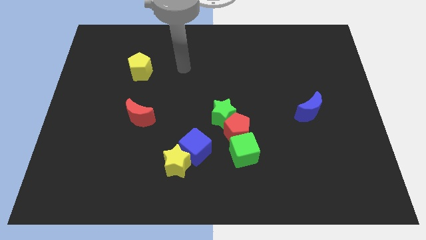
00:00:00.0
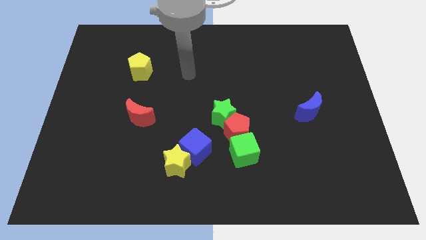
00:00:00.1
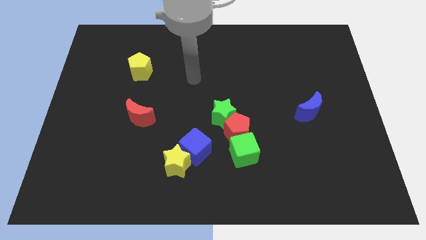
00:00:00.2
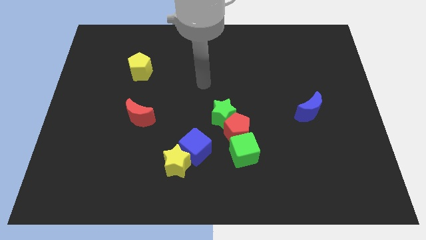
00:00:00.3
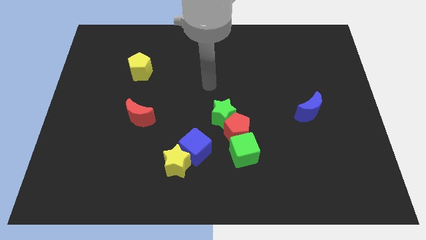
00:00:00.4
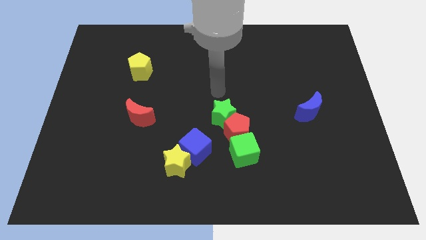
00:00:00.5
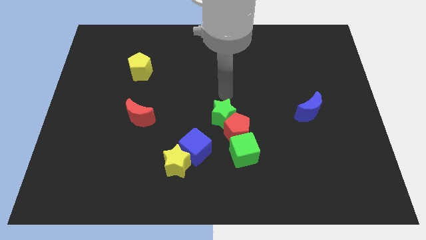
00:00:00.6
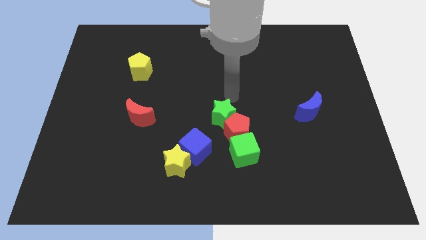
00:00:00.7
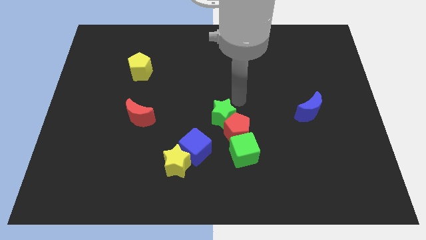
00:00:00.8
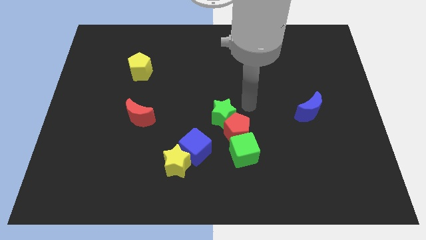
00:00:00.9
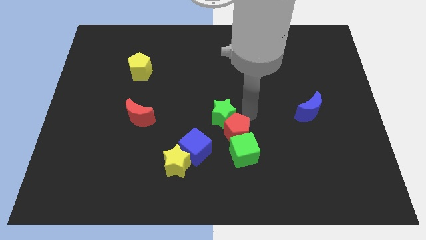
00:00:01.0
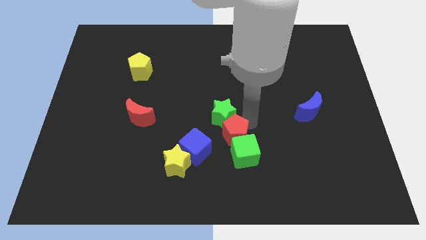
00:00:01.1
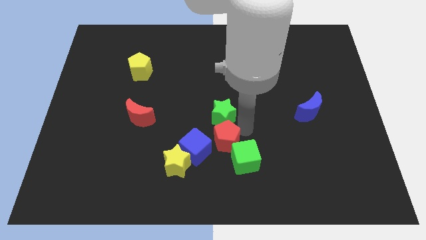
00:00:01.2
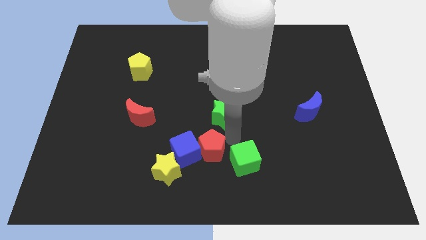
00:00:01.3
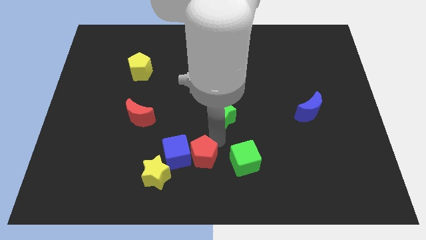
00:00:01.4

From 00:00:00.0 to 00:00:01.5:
move the green star away from the red pentagon

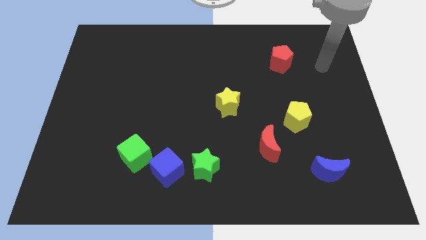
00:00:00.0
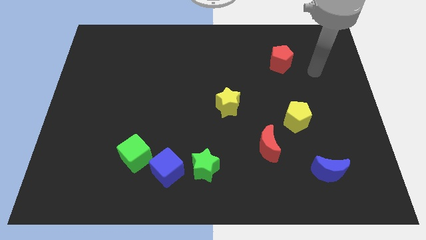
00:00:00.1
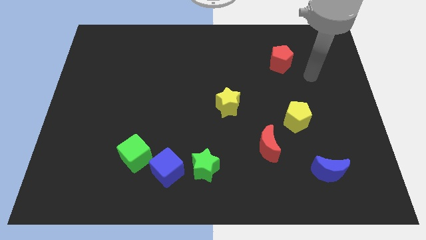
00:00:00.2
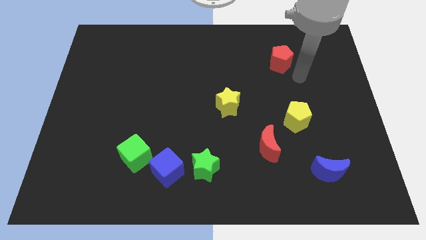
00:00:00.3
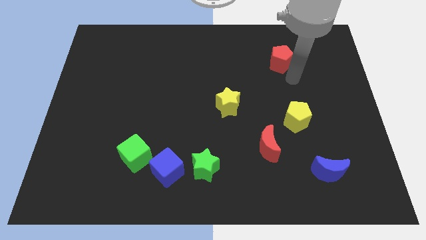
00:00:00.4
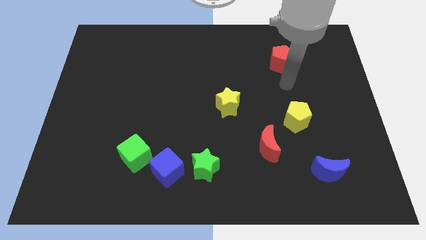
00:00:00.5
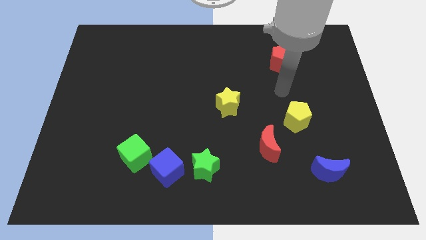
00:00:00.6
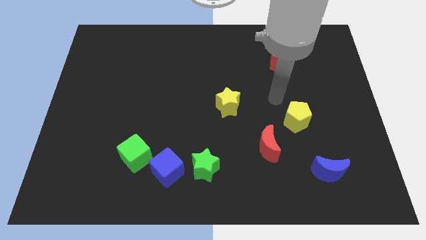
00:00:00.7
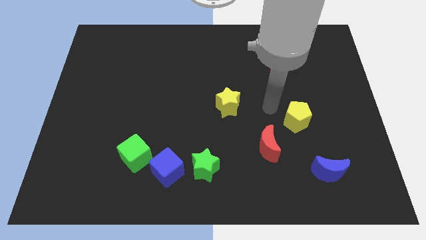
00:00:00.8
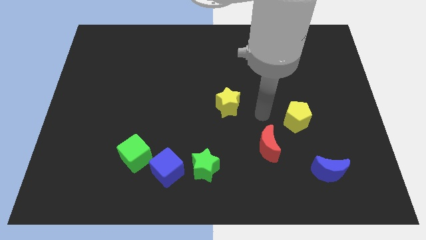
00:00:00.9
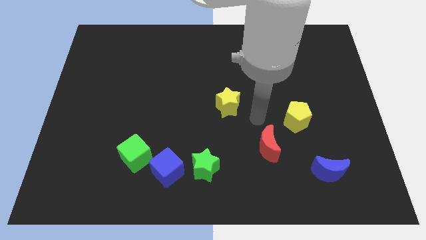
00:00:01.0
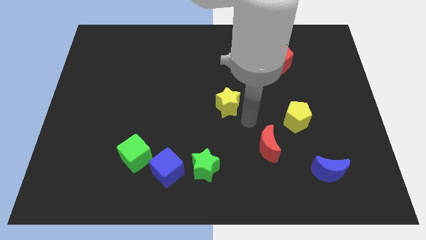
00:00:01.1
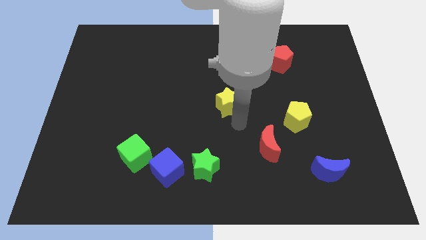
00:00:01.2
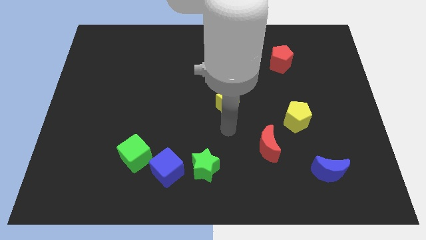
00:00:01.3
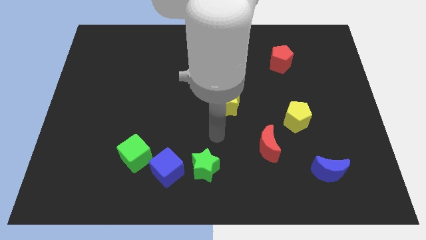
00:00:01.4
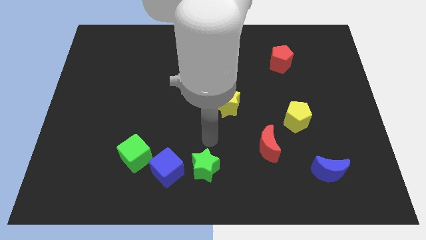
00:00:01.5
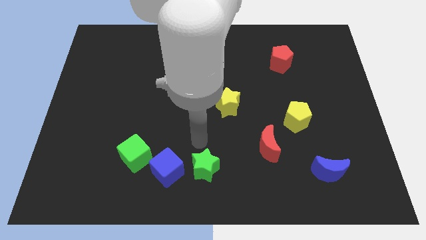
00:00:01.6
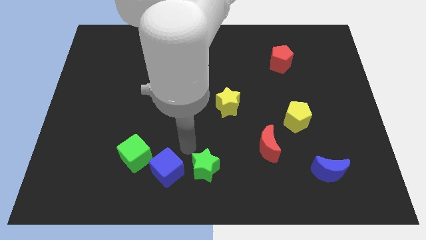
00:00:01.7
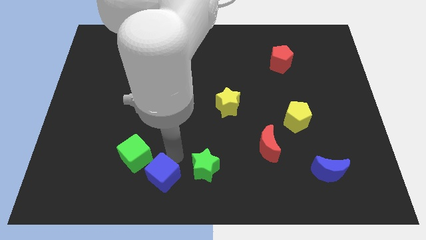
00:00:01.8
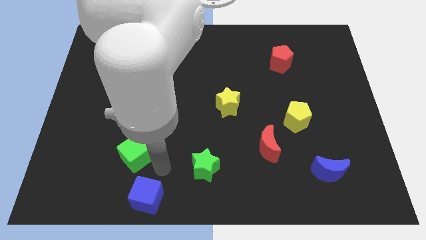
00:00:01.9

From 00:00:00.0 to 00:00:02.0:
separate the green cube from the blue cube

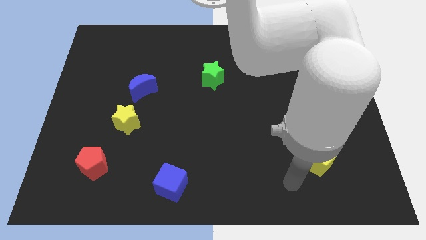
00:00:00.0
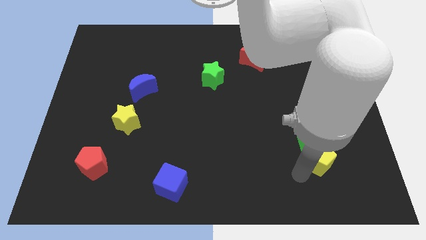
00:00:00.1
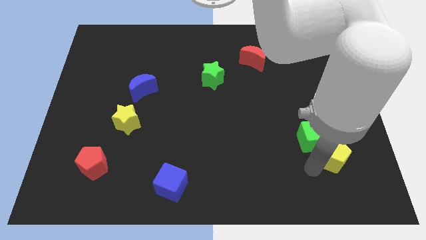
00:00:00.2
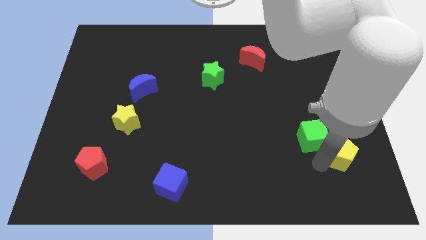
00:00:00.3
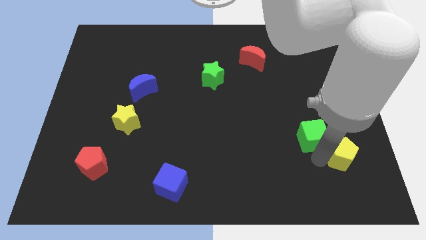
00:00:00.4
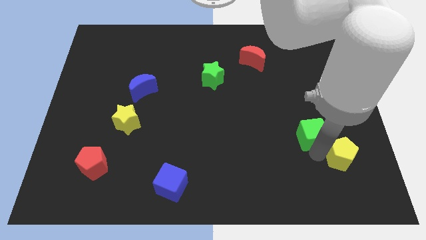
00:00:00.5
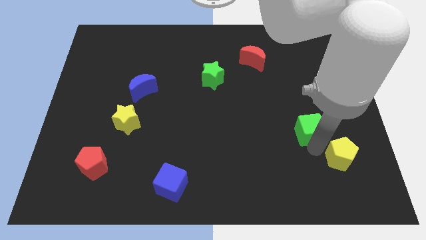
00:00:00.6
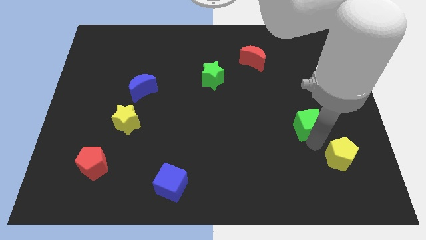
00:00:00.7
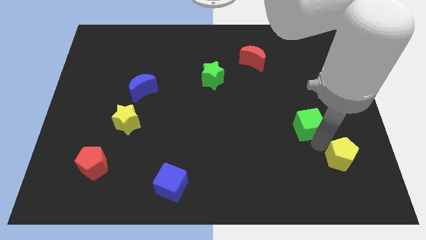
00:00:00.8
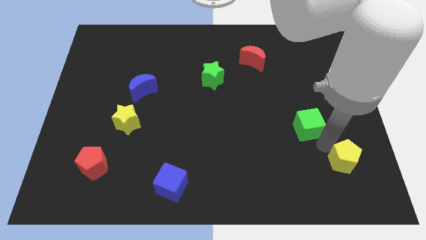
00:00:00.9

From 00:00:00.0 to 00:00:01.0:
separate the green cube from the yellow pentagon

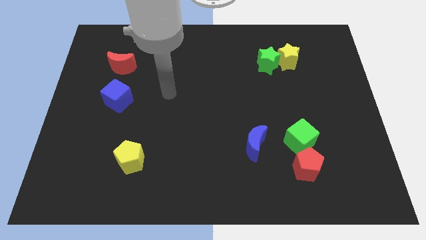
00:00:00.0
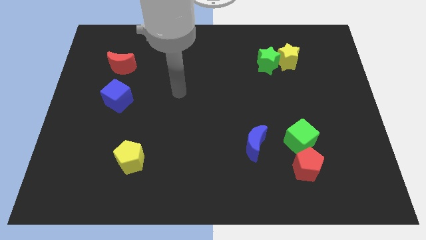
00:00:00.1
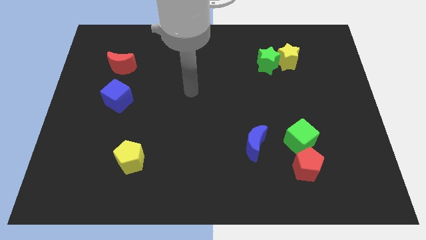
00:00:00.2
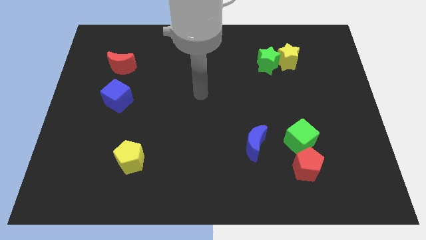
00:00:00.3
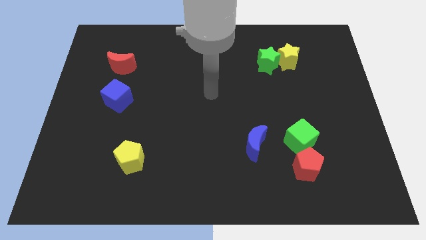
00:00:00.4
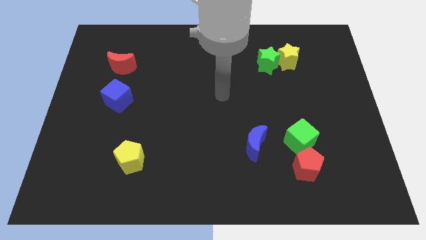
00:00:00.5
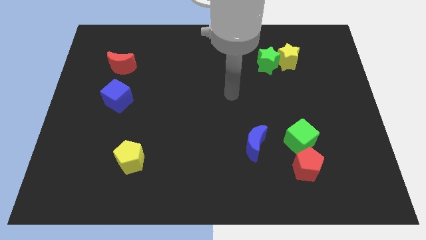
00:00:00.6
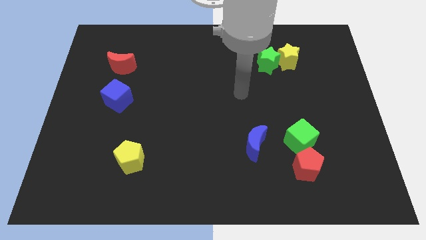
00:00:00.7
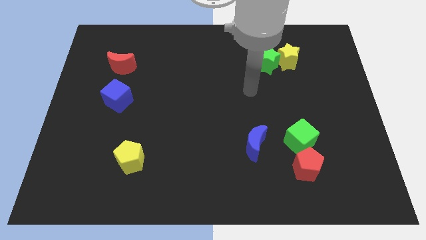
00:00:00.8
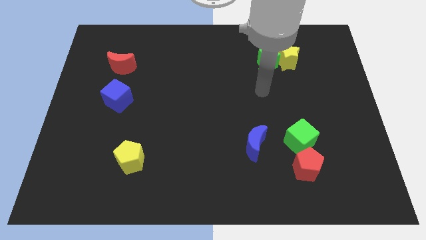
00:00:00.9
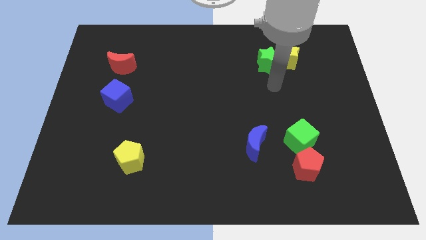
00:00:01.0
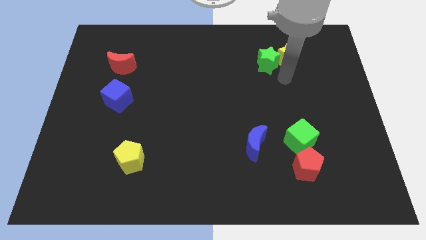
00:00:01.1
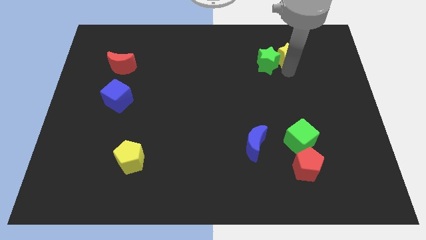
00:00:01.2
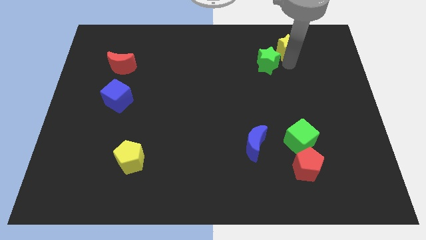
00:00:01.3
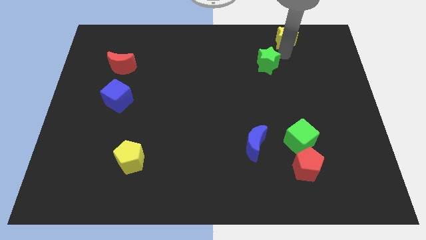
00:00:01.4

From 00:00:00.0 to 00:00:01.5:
move the green star away from the yellow star

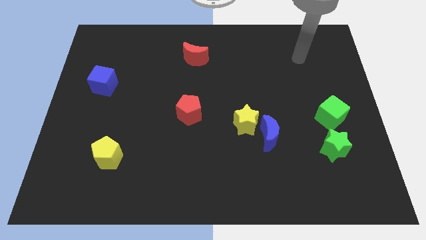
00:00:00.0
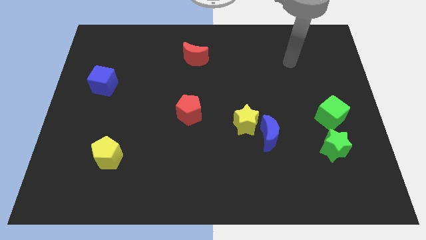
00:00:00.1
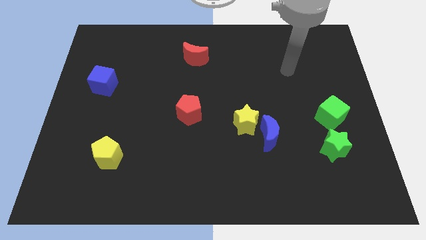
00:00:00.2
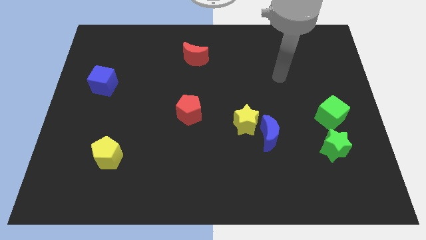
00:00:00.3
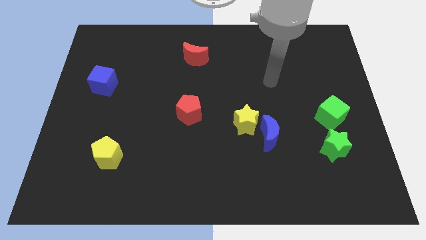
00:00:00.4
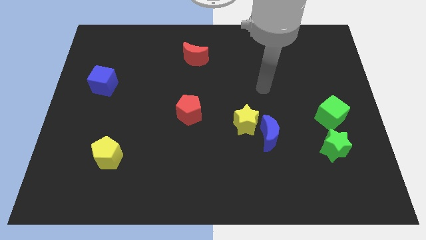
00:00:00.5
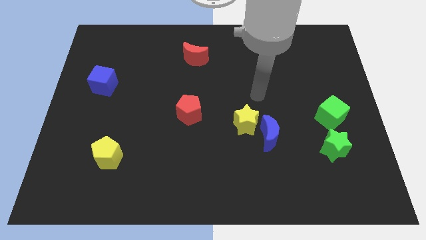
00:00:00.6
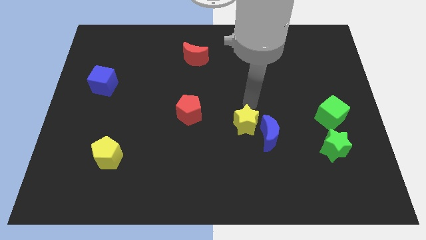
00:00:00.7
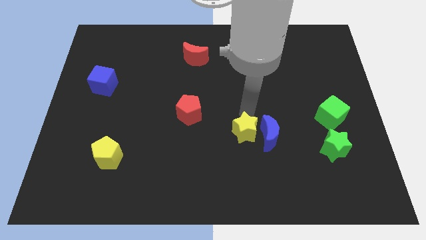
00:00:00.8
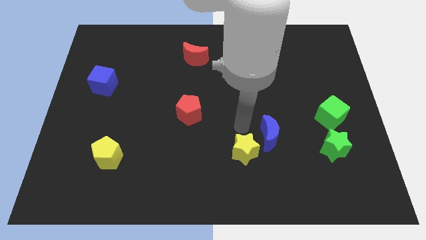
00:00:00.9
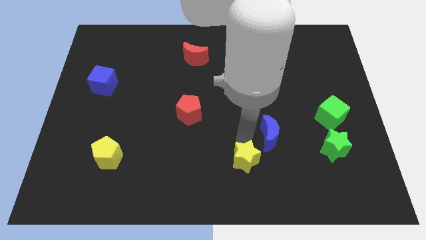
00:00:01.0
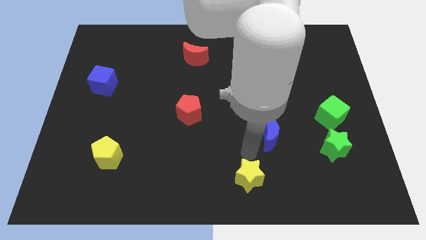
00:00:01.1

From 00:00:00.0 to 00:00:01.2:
separate the blue moon from the yellow star

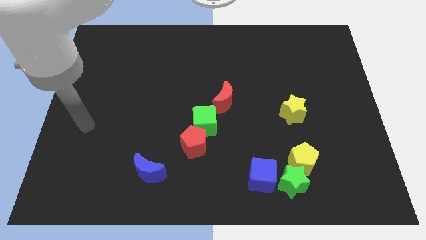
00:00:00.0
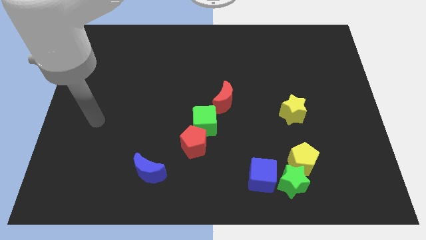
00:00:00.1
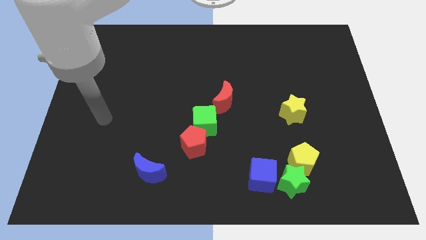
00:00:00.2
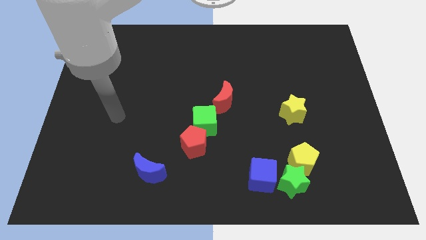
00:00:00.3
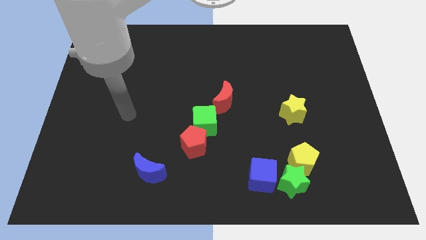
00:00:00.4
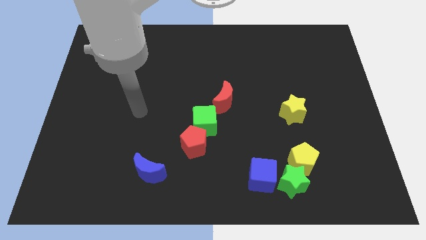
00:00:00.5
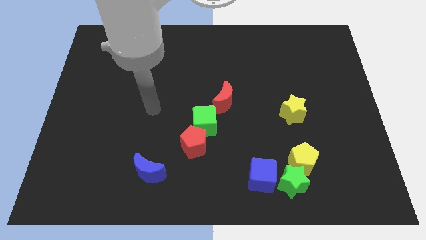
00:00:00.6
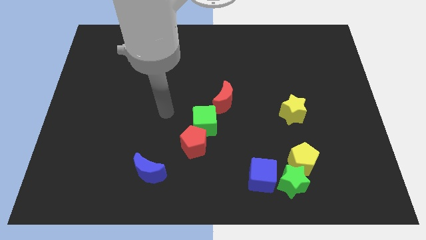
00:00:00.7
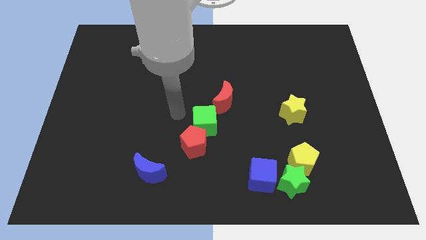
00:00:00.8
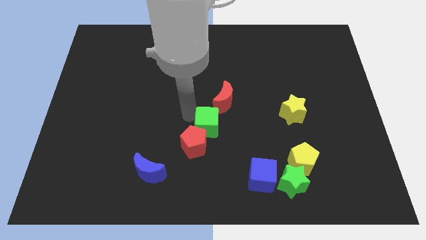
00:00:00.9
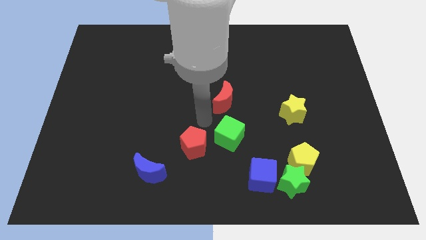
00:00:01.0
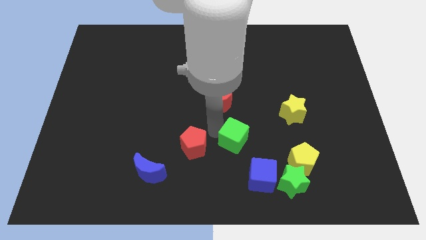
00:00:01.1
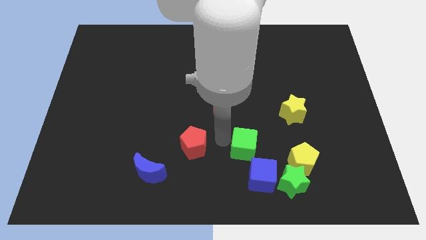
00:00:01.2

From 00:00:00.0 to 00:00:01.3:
pull the red pentagon apart from the green cube

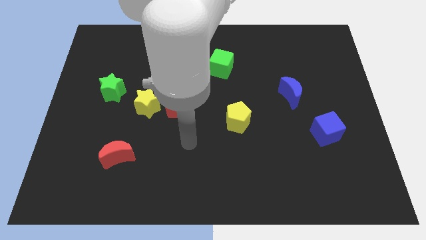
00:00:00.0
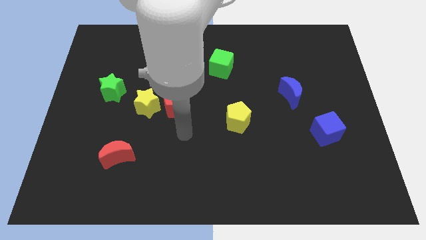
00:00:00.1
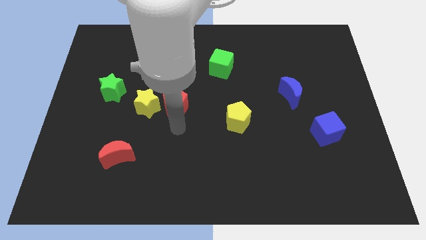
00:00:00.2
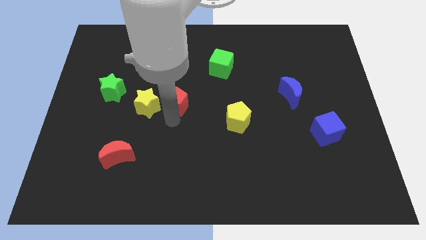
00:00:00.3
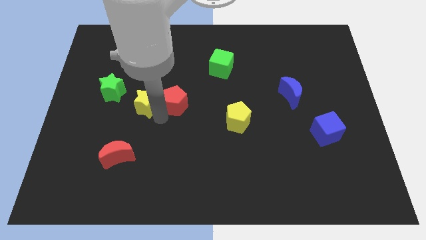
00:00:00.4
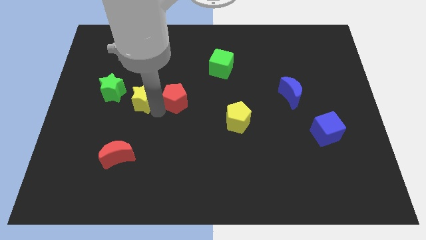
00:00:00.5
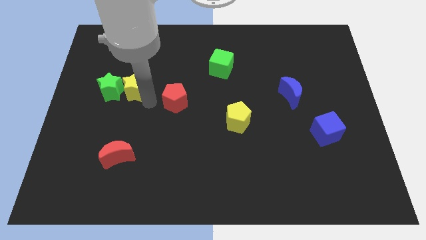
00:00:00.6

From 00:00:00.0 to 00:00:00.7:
move the red pentagon away from the yellow star
